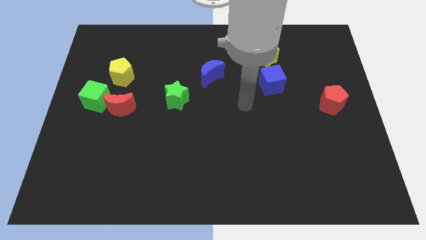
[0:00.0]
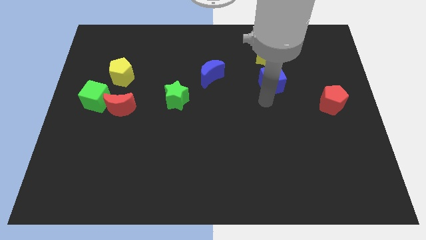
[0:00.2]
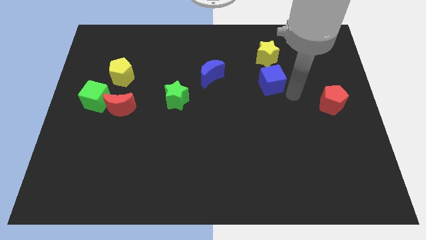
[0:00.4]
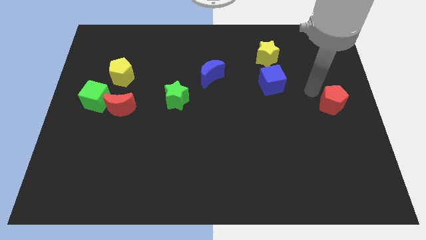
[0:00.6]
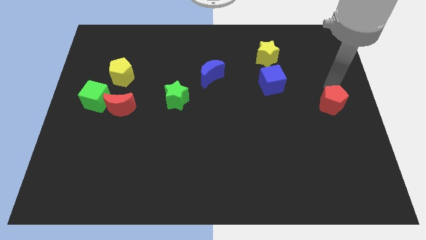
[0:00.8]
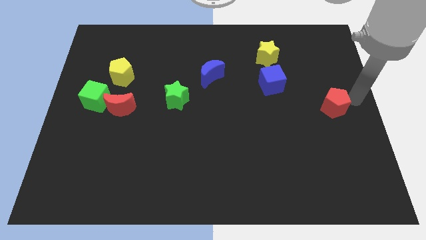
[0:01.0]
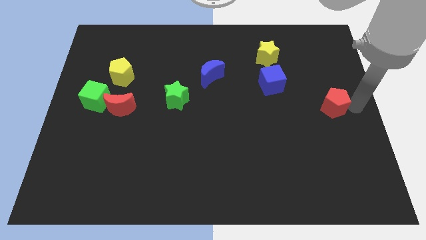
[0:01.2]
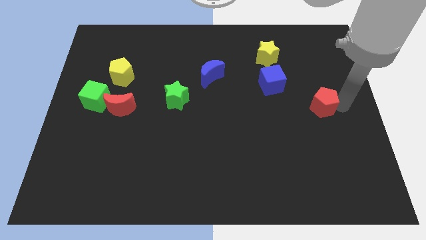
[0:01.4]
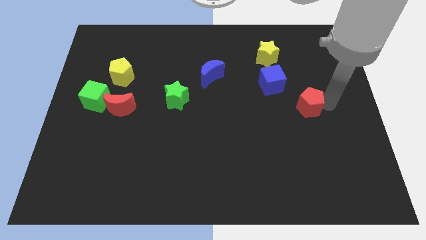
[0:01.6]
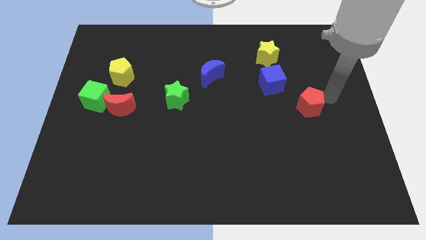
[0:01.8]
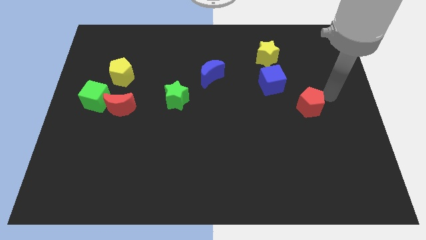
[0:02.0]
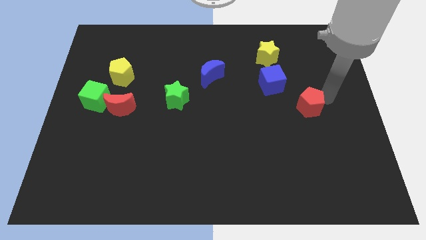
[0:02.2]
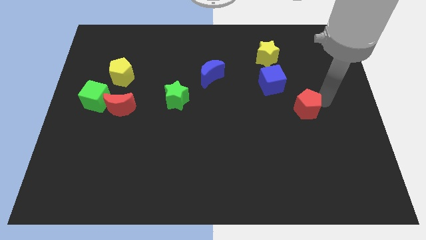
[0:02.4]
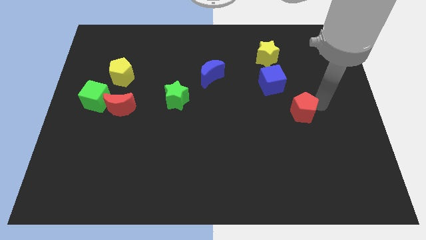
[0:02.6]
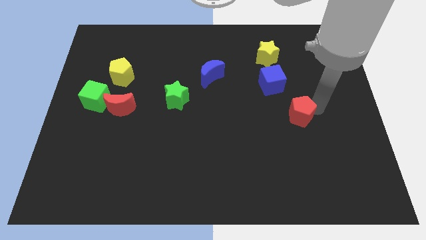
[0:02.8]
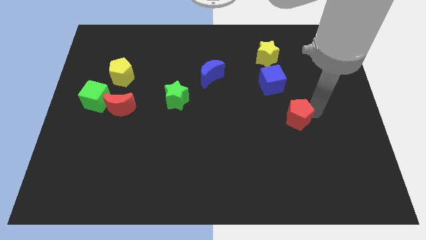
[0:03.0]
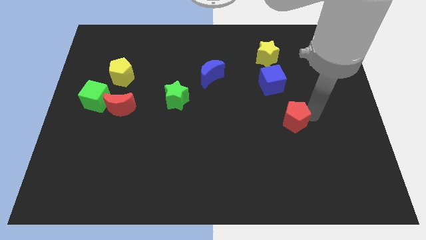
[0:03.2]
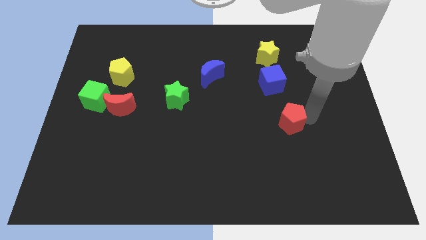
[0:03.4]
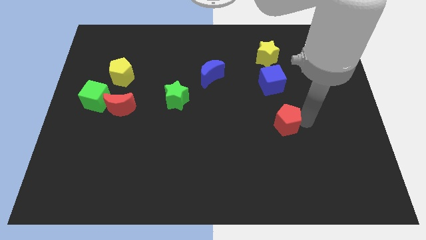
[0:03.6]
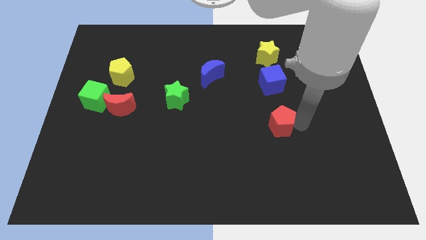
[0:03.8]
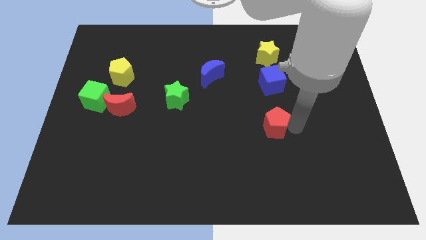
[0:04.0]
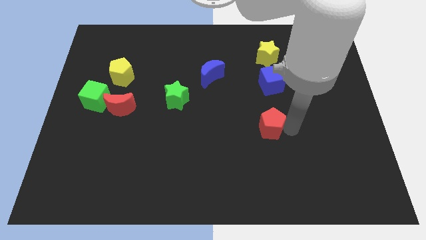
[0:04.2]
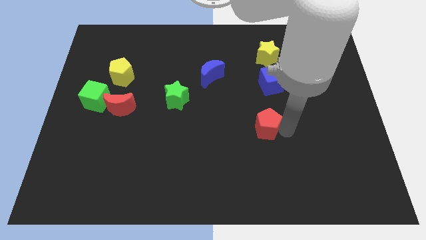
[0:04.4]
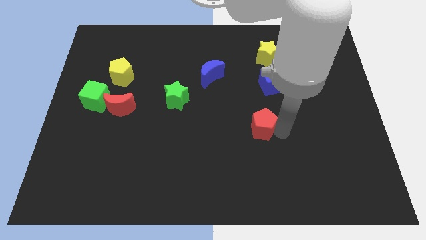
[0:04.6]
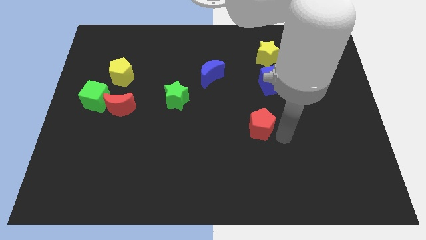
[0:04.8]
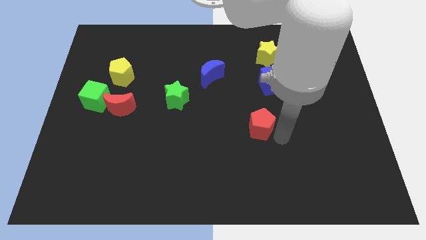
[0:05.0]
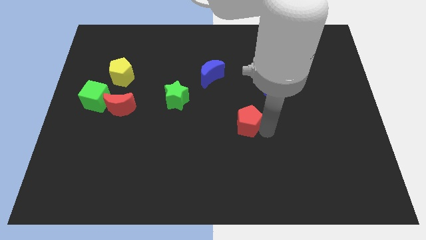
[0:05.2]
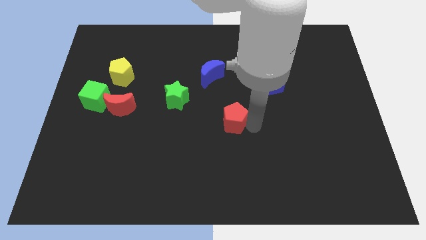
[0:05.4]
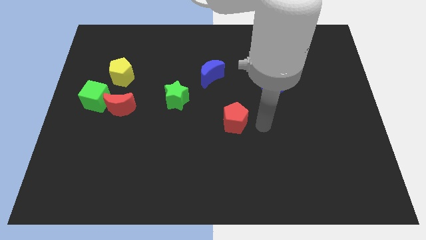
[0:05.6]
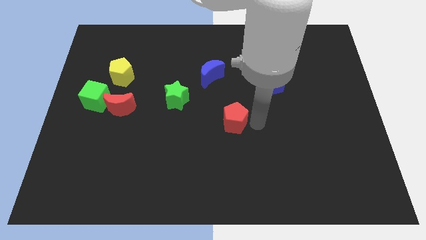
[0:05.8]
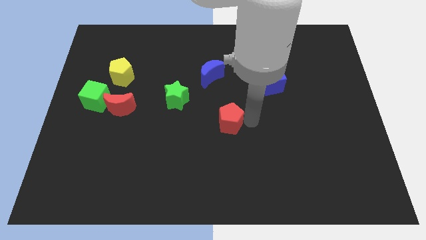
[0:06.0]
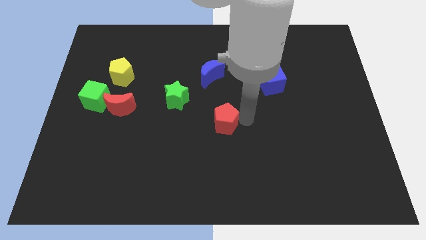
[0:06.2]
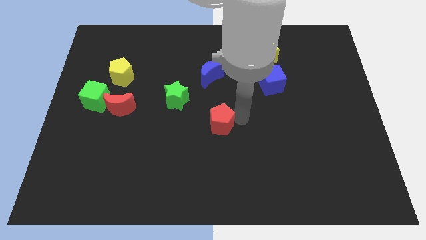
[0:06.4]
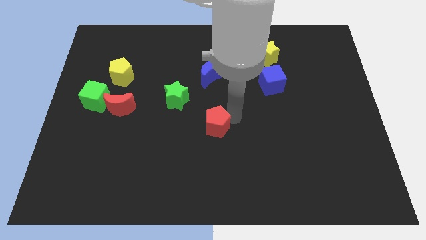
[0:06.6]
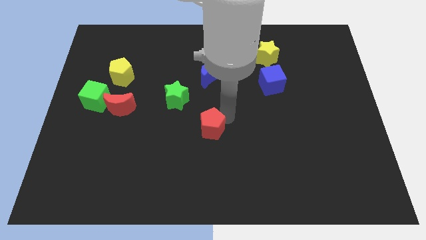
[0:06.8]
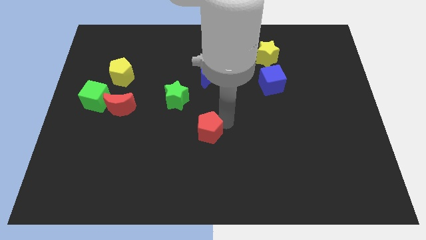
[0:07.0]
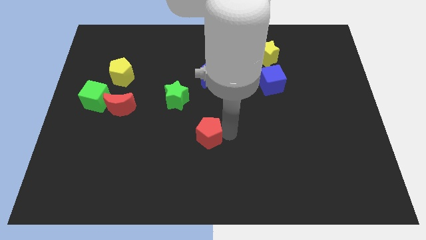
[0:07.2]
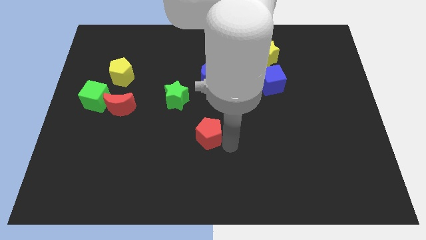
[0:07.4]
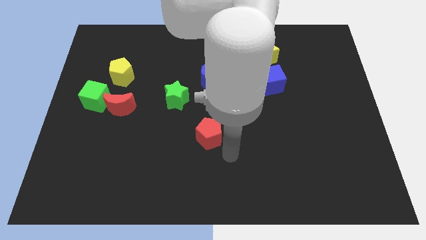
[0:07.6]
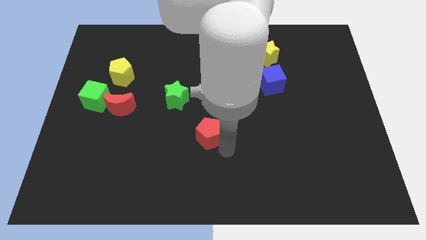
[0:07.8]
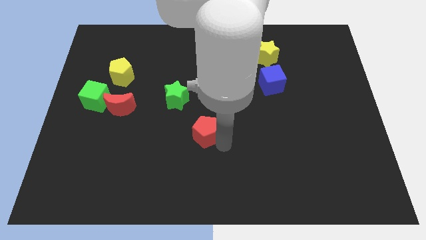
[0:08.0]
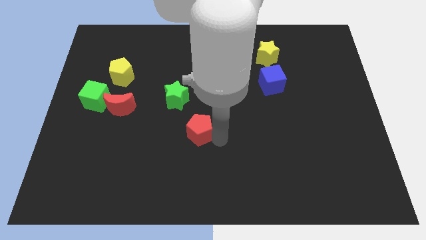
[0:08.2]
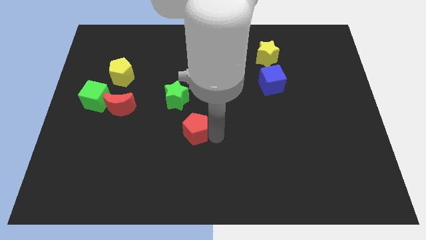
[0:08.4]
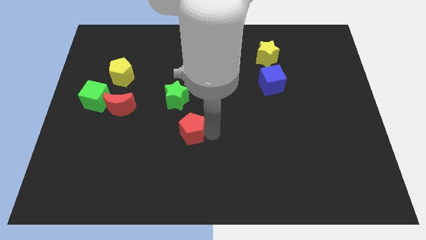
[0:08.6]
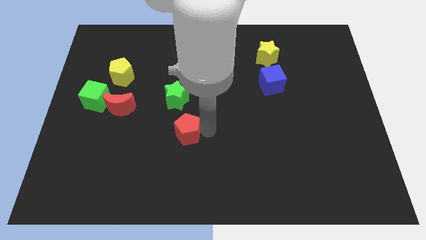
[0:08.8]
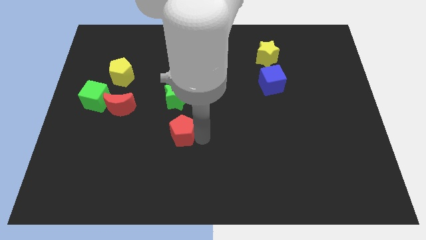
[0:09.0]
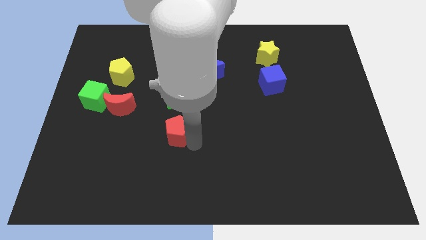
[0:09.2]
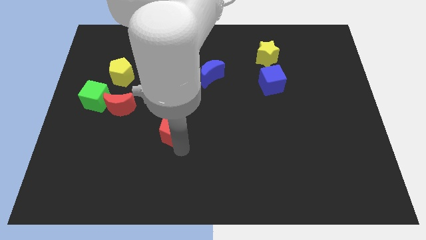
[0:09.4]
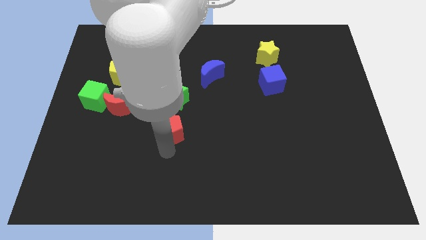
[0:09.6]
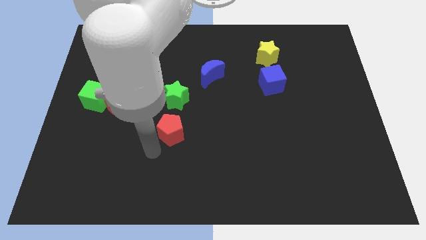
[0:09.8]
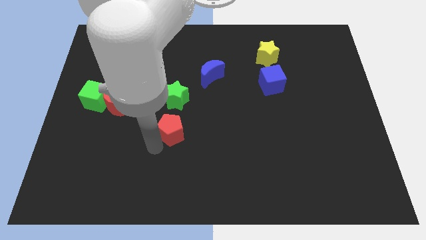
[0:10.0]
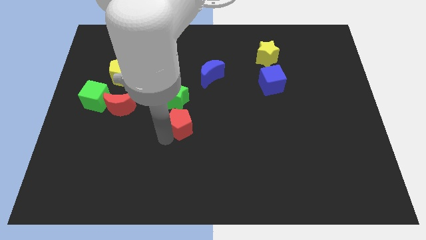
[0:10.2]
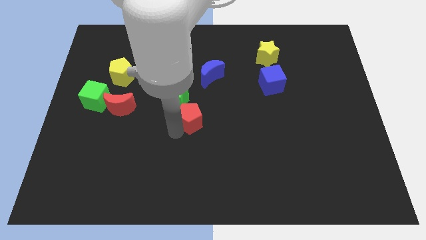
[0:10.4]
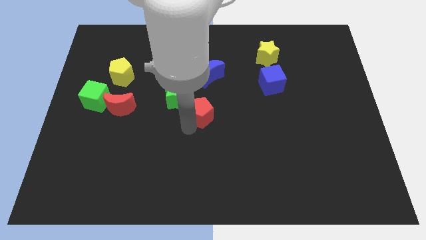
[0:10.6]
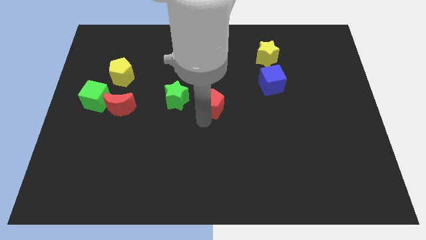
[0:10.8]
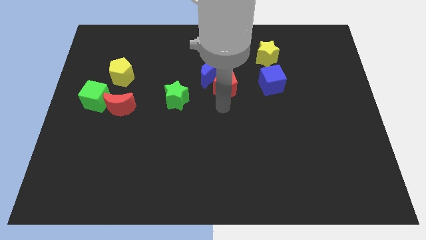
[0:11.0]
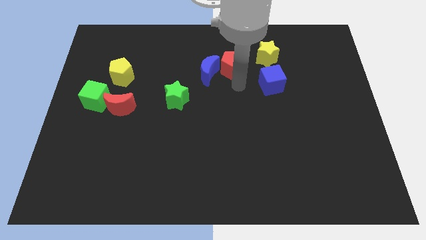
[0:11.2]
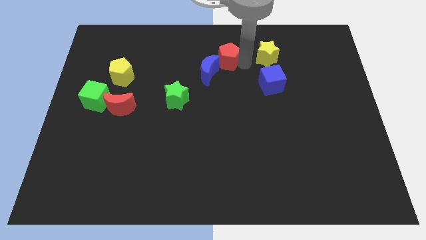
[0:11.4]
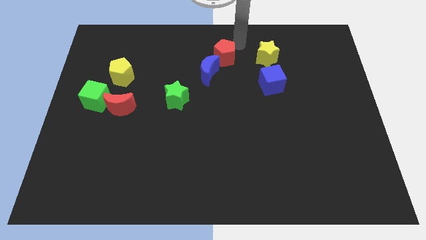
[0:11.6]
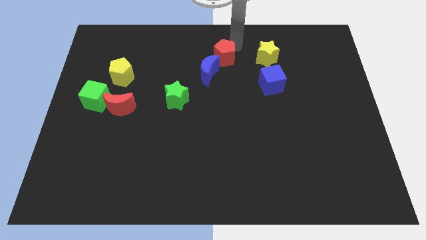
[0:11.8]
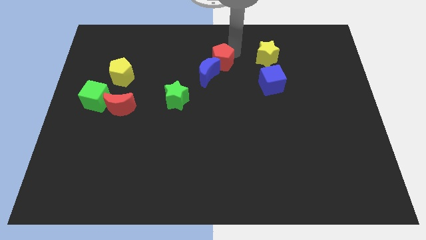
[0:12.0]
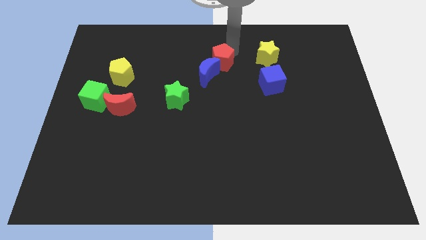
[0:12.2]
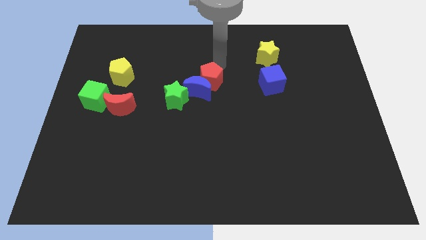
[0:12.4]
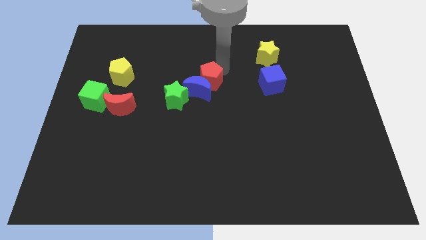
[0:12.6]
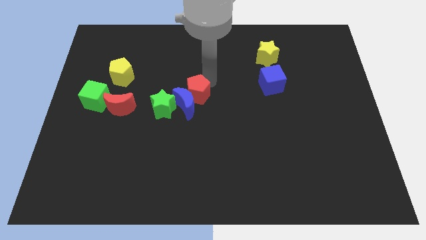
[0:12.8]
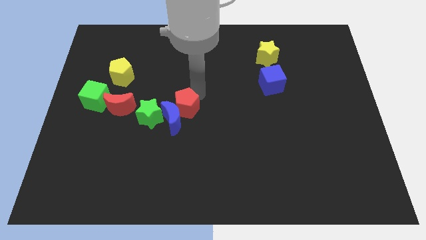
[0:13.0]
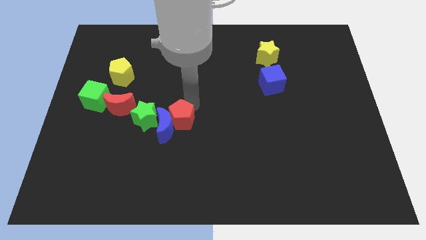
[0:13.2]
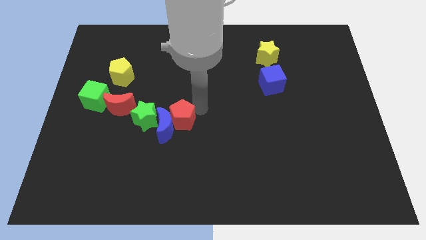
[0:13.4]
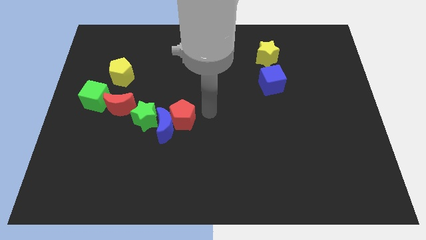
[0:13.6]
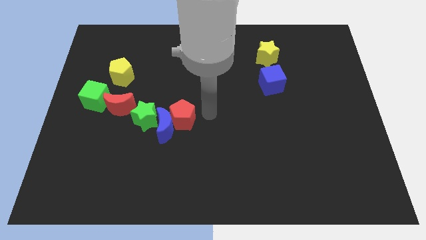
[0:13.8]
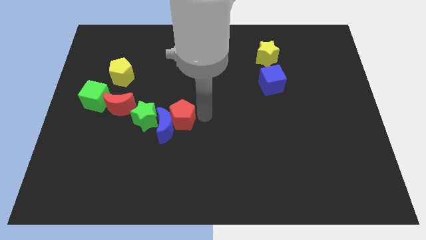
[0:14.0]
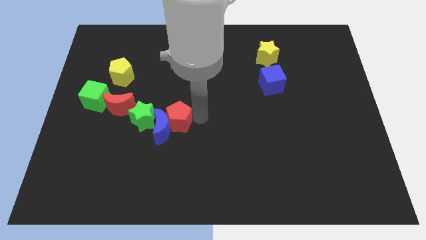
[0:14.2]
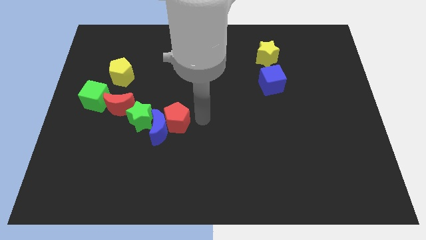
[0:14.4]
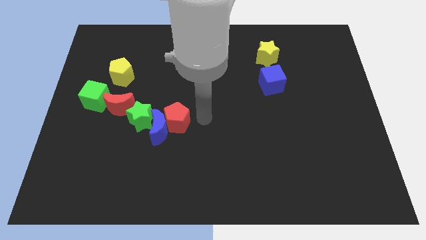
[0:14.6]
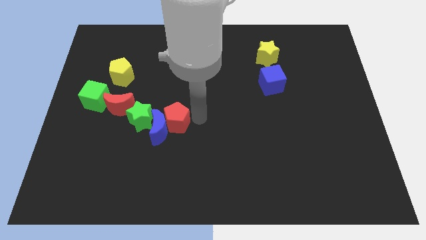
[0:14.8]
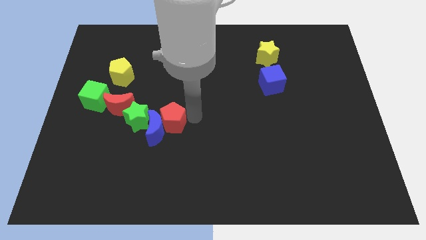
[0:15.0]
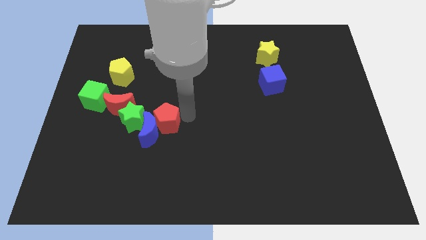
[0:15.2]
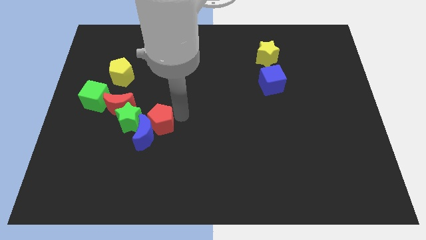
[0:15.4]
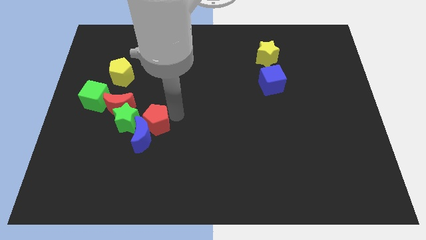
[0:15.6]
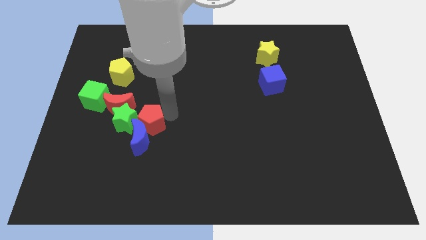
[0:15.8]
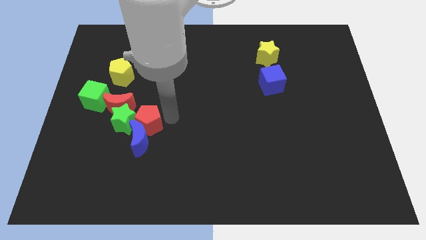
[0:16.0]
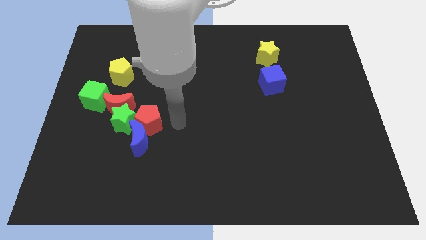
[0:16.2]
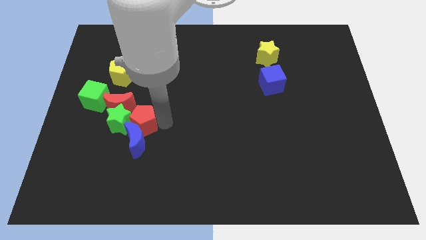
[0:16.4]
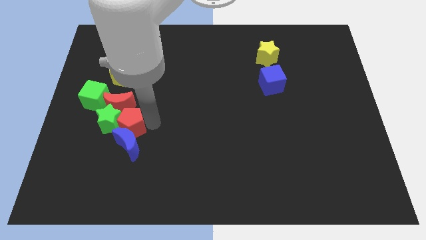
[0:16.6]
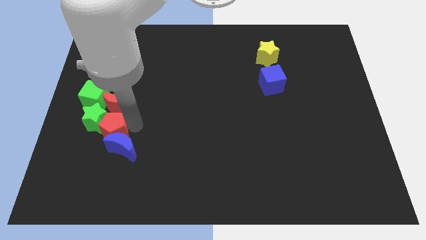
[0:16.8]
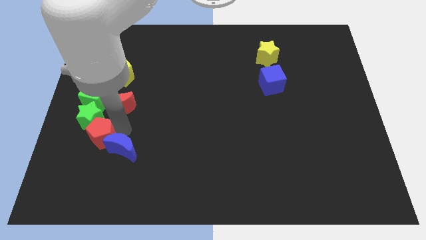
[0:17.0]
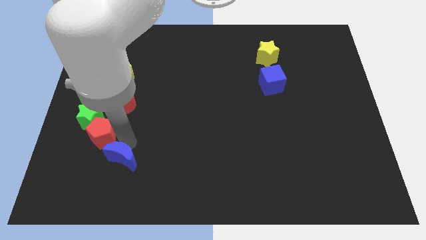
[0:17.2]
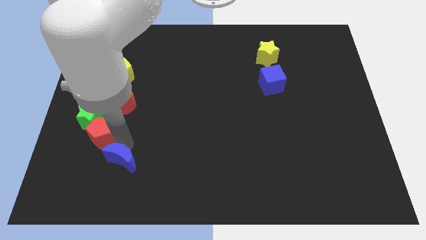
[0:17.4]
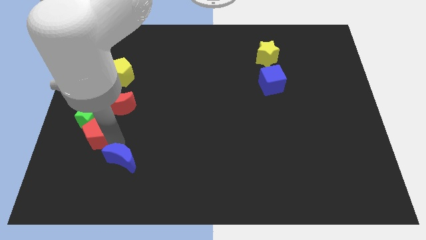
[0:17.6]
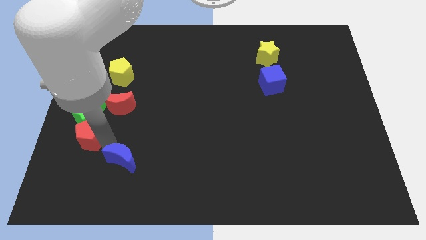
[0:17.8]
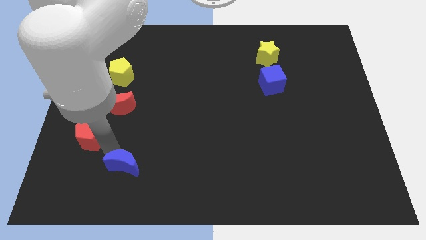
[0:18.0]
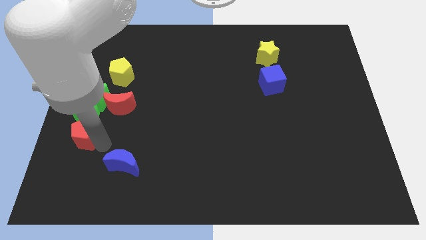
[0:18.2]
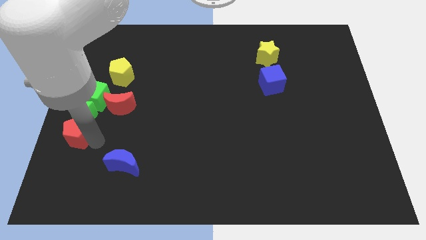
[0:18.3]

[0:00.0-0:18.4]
slide the red pentagon to the left side of the board
